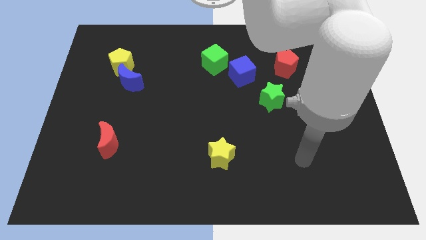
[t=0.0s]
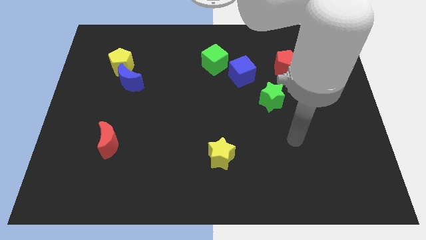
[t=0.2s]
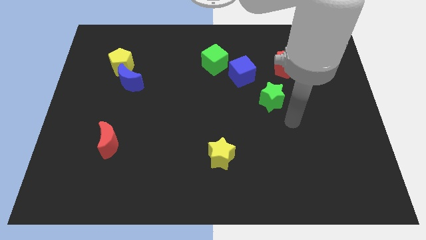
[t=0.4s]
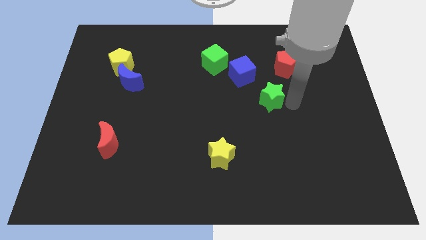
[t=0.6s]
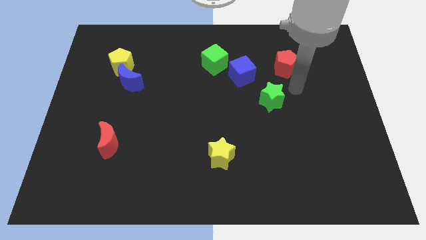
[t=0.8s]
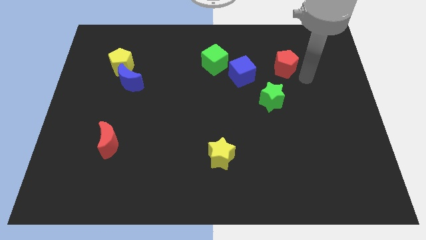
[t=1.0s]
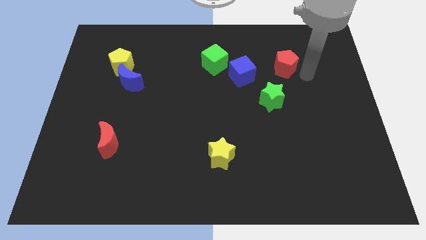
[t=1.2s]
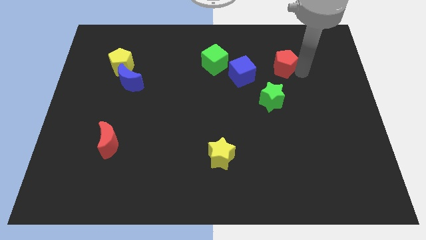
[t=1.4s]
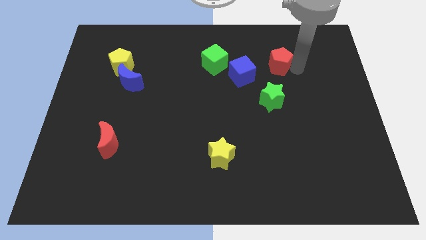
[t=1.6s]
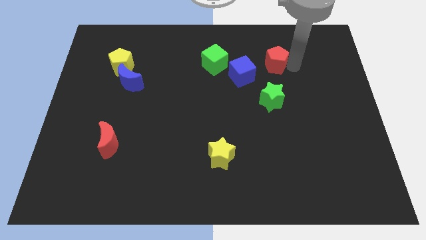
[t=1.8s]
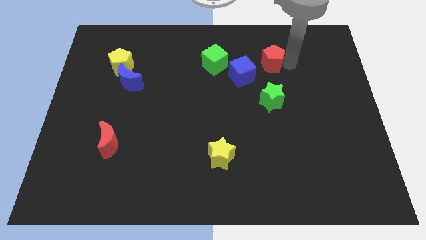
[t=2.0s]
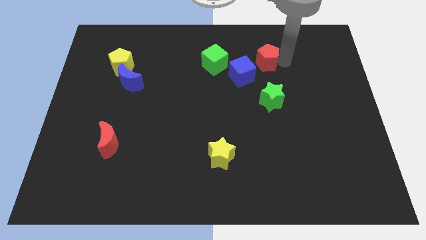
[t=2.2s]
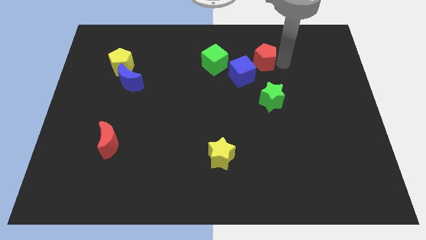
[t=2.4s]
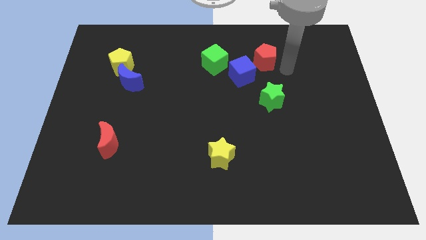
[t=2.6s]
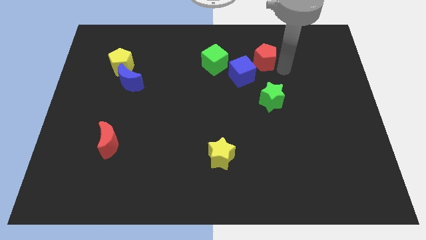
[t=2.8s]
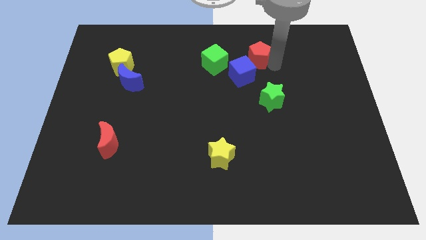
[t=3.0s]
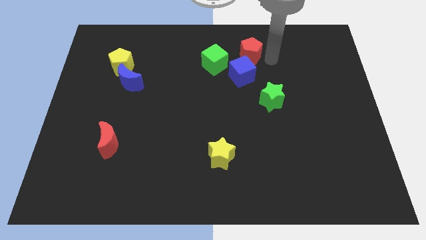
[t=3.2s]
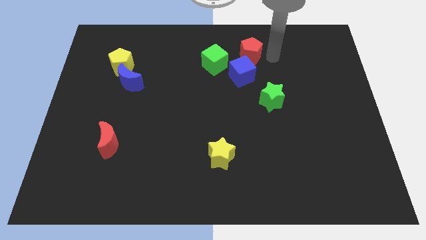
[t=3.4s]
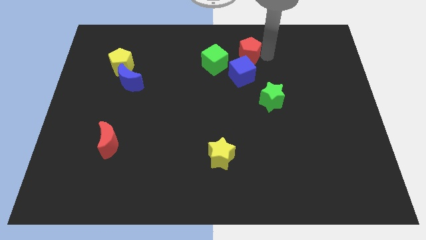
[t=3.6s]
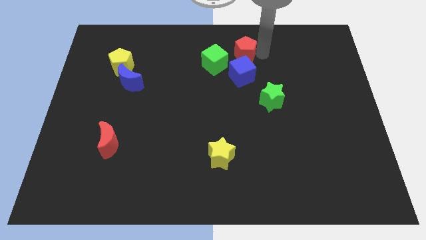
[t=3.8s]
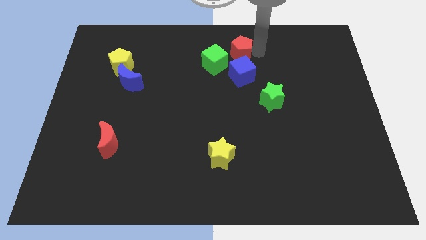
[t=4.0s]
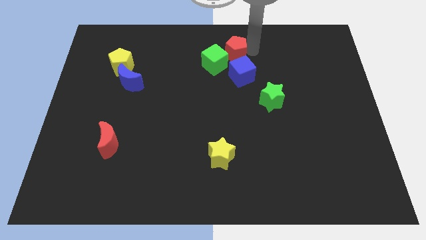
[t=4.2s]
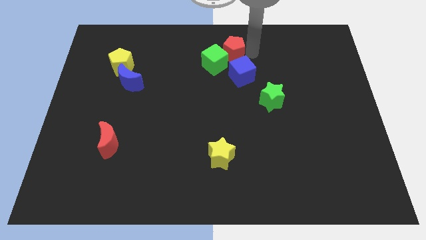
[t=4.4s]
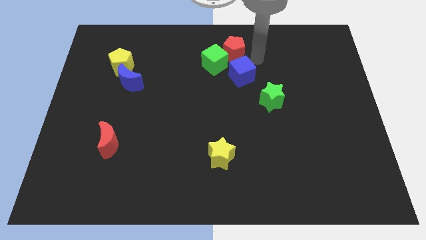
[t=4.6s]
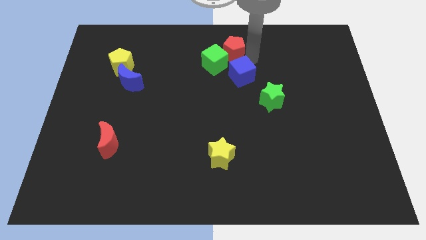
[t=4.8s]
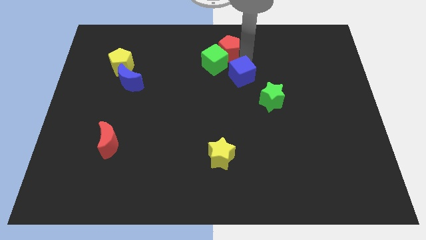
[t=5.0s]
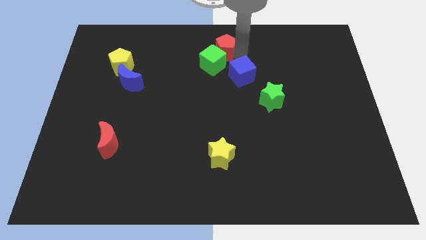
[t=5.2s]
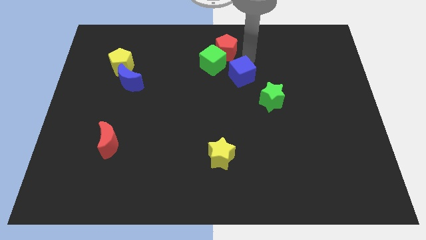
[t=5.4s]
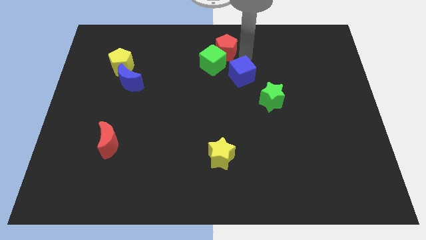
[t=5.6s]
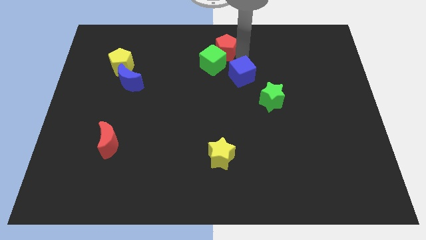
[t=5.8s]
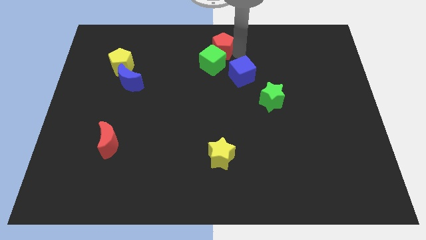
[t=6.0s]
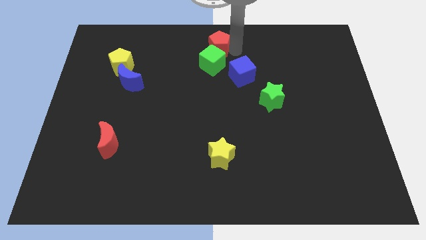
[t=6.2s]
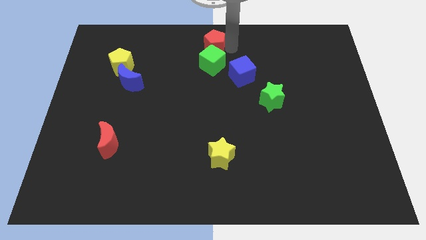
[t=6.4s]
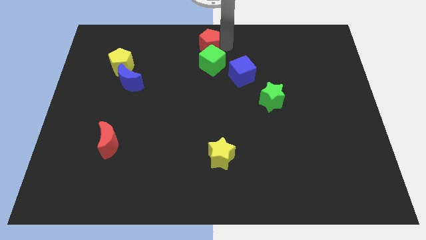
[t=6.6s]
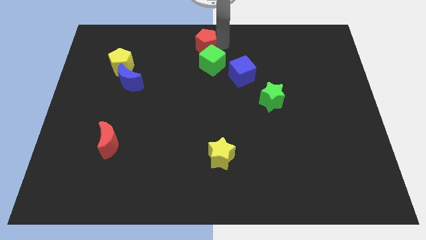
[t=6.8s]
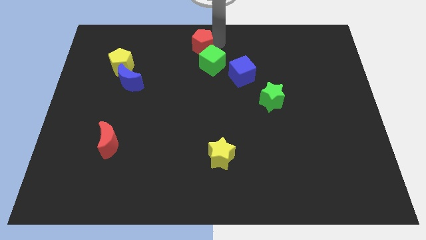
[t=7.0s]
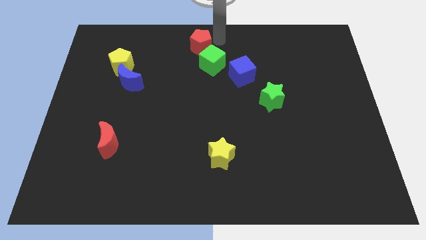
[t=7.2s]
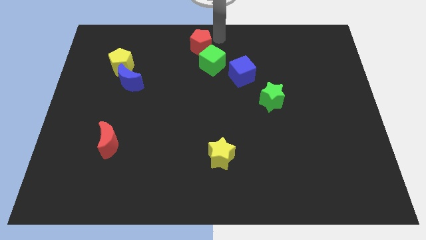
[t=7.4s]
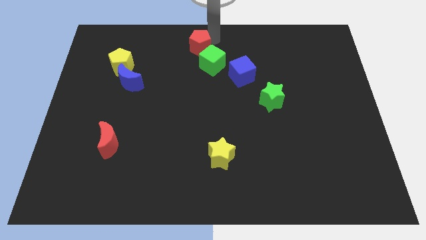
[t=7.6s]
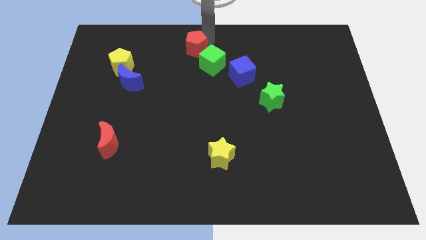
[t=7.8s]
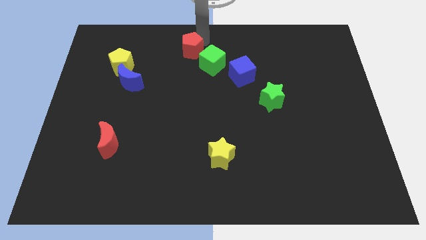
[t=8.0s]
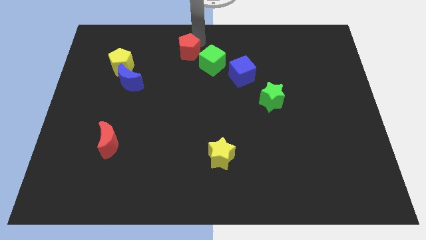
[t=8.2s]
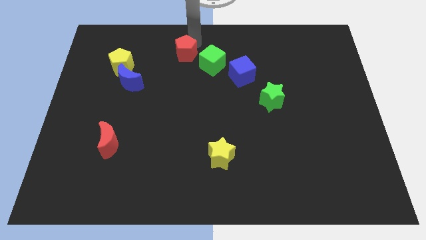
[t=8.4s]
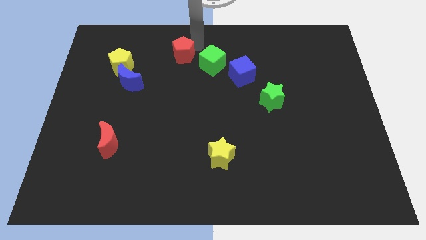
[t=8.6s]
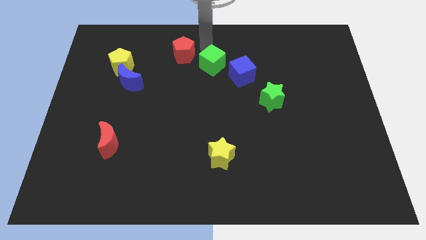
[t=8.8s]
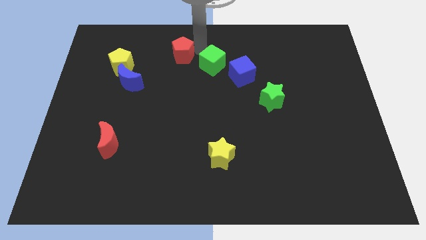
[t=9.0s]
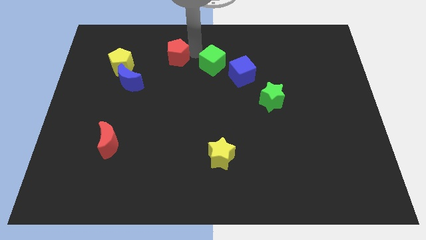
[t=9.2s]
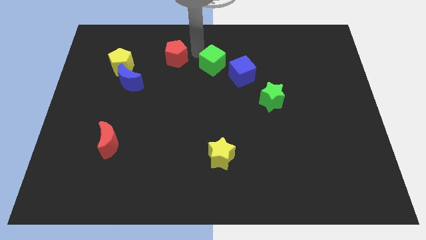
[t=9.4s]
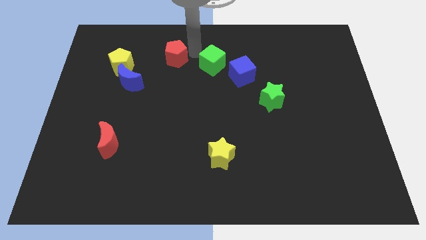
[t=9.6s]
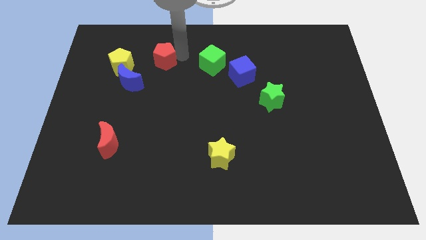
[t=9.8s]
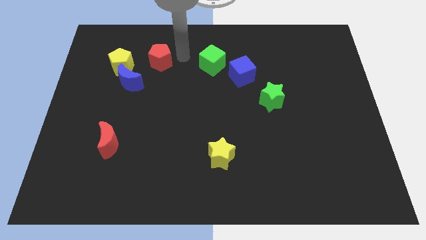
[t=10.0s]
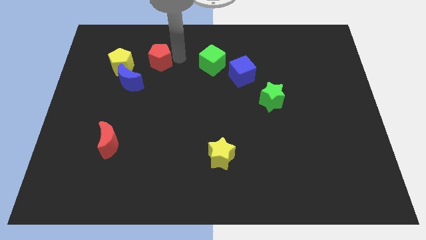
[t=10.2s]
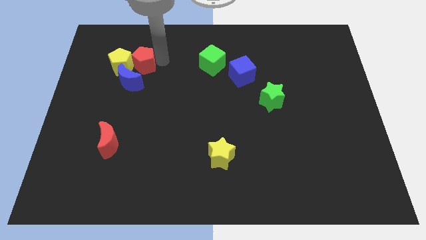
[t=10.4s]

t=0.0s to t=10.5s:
slide the red pentagon close to the yellow pentagon

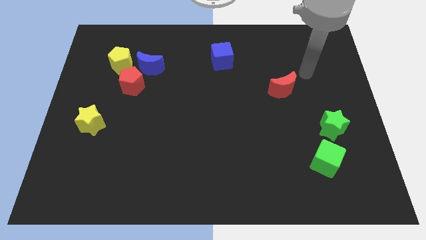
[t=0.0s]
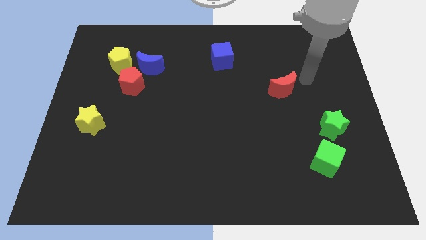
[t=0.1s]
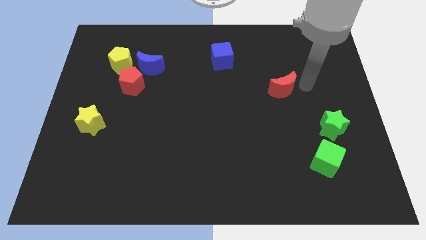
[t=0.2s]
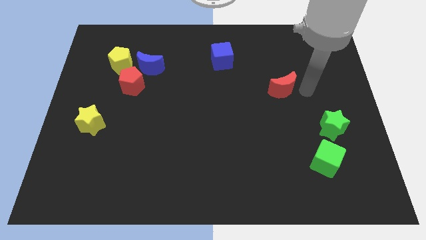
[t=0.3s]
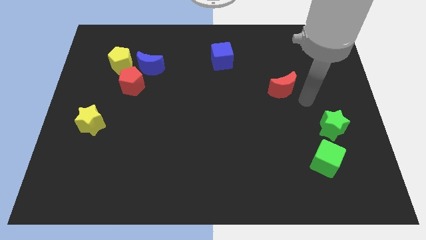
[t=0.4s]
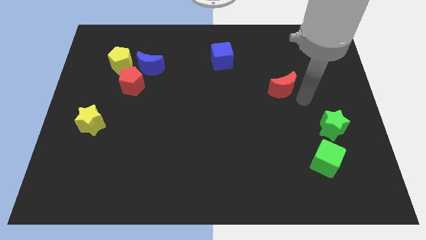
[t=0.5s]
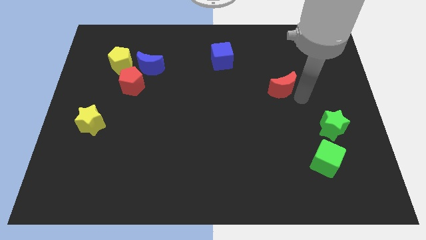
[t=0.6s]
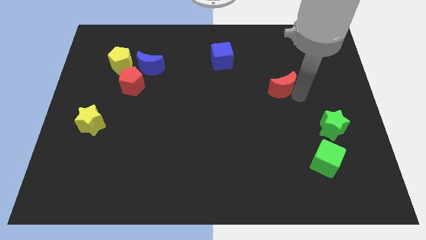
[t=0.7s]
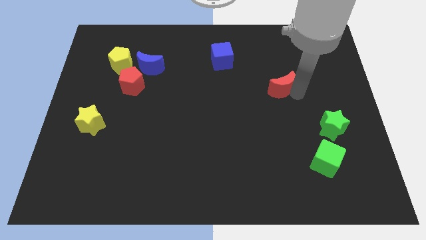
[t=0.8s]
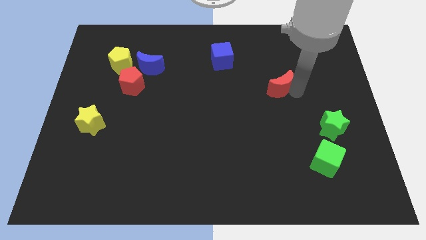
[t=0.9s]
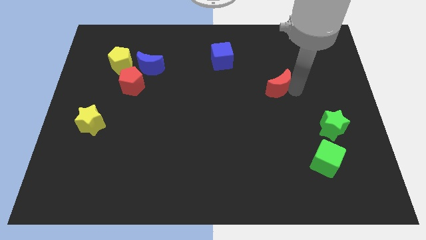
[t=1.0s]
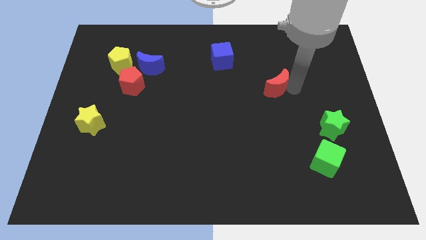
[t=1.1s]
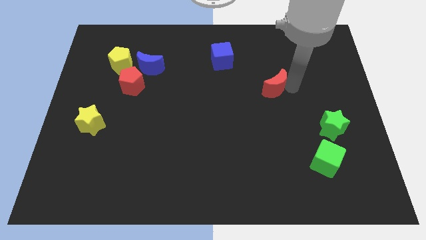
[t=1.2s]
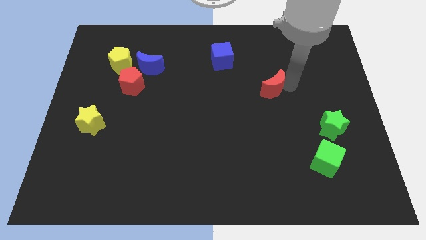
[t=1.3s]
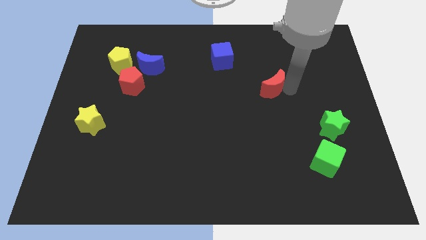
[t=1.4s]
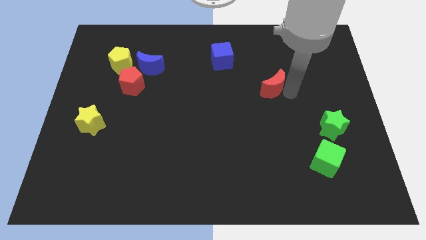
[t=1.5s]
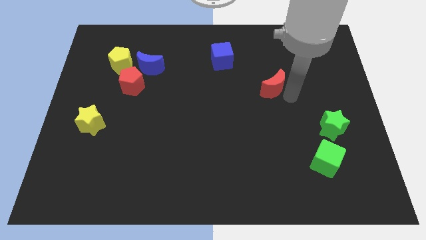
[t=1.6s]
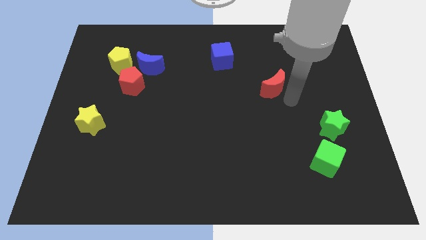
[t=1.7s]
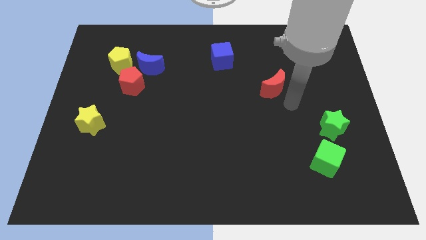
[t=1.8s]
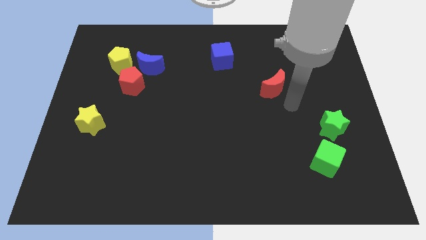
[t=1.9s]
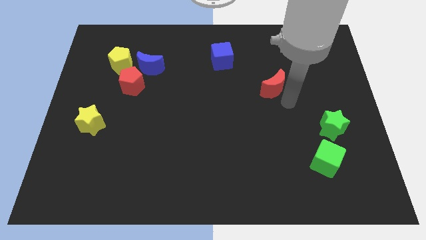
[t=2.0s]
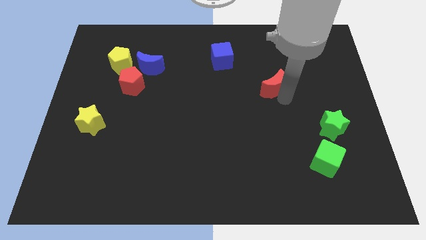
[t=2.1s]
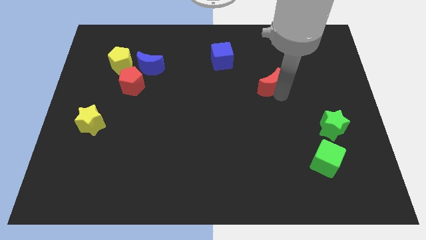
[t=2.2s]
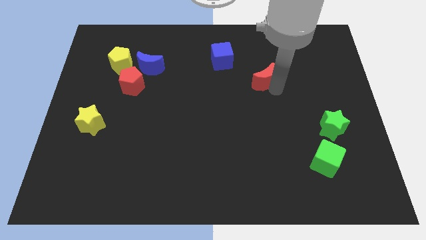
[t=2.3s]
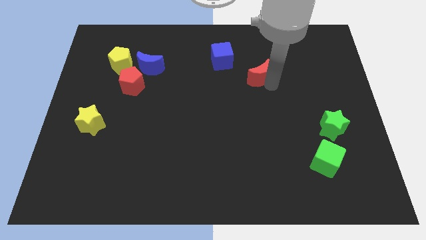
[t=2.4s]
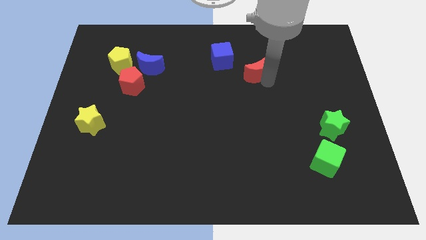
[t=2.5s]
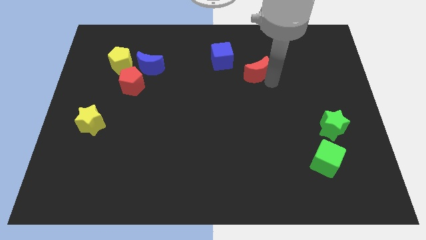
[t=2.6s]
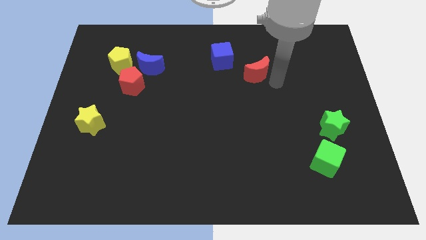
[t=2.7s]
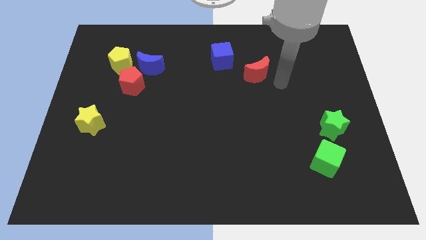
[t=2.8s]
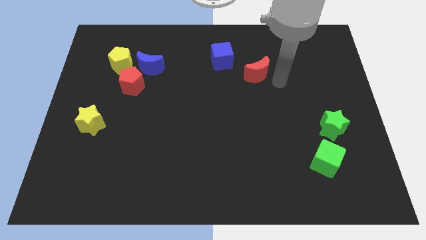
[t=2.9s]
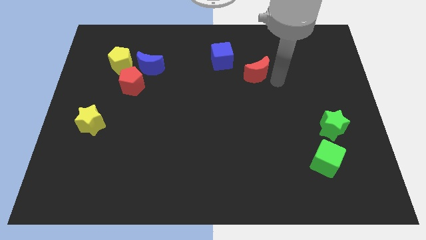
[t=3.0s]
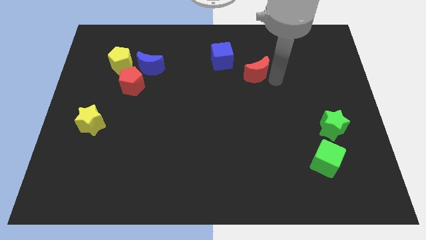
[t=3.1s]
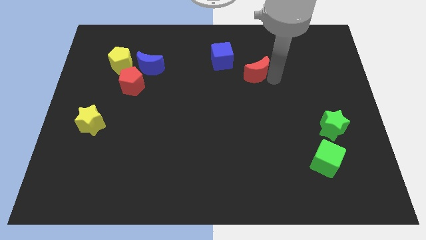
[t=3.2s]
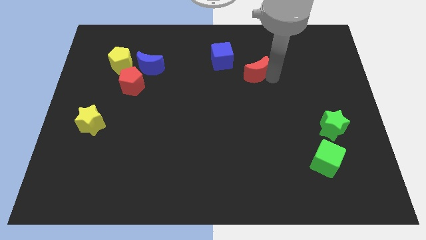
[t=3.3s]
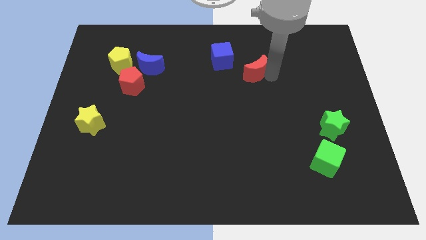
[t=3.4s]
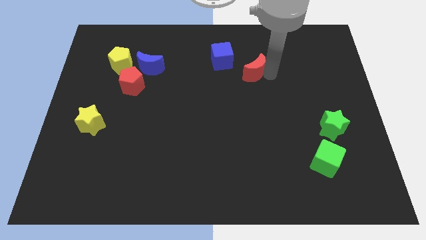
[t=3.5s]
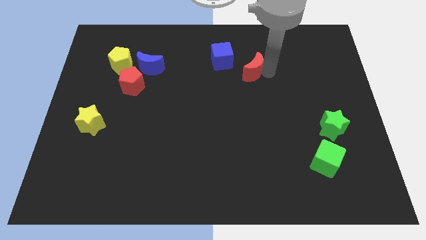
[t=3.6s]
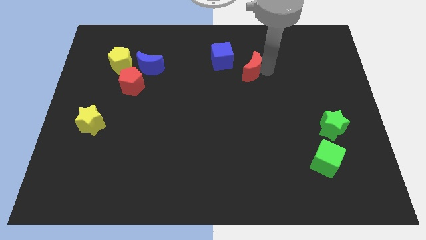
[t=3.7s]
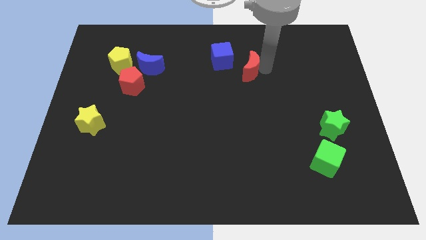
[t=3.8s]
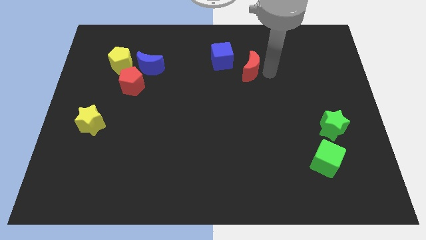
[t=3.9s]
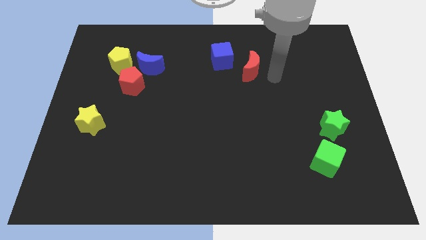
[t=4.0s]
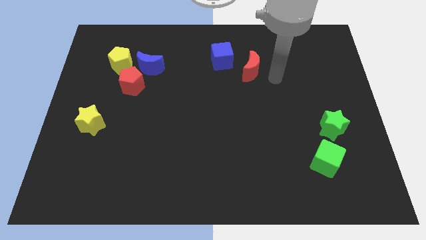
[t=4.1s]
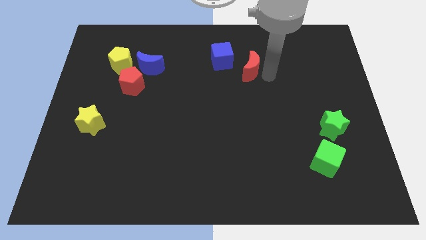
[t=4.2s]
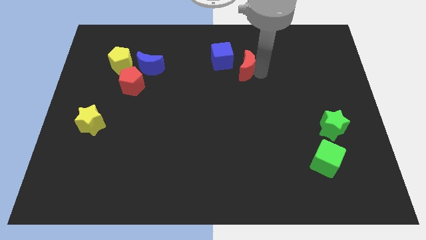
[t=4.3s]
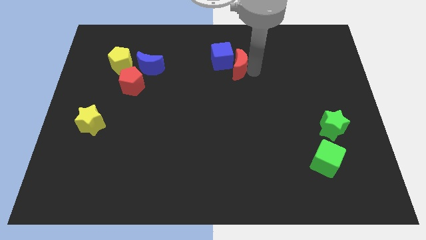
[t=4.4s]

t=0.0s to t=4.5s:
put the red moon close to the blue cube
